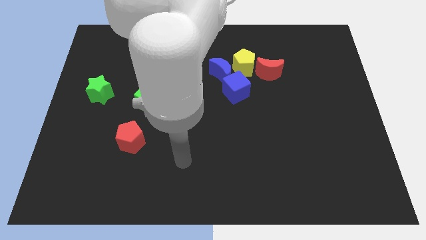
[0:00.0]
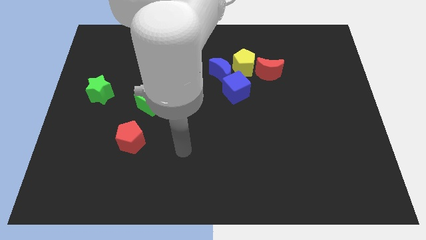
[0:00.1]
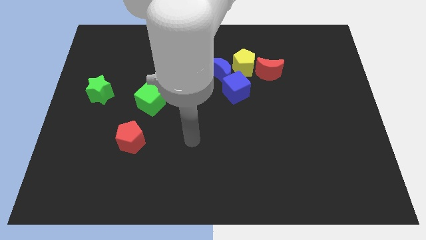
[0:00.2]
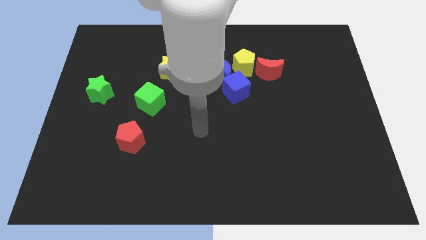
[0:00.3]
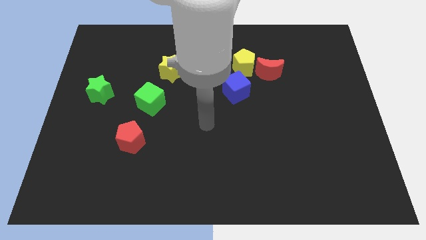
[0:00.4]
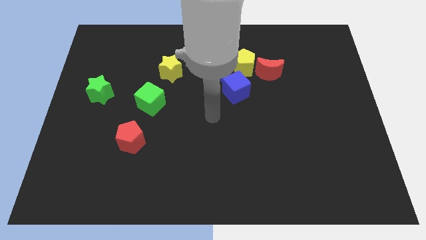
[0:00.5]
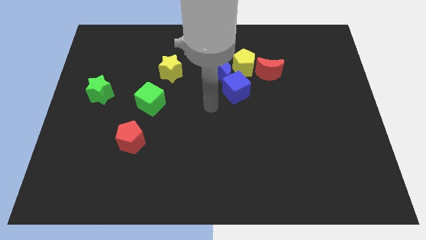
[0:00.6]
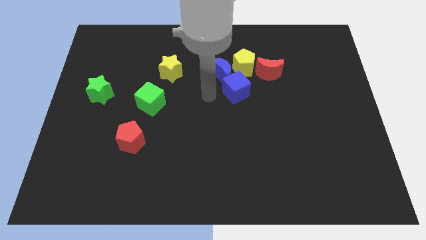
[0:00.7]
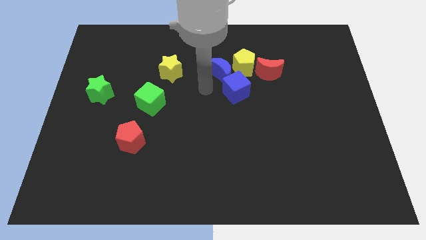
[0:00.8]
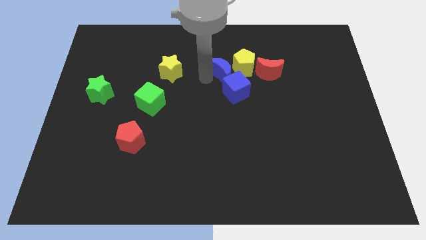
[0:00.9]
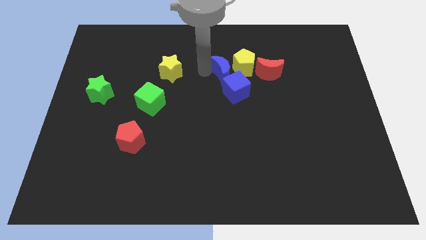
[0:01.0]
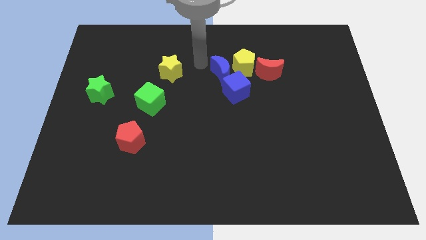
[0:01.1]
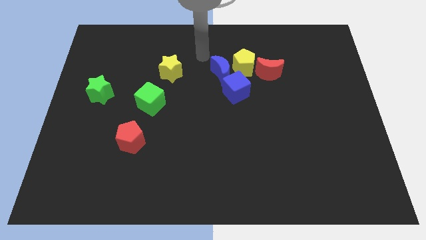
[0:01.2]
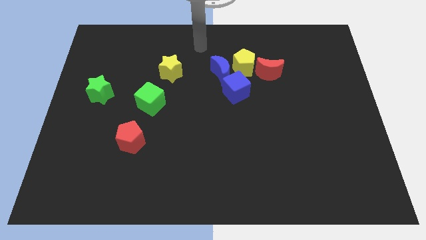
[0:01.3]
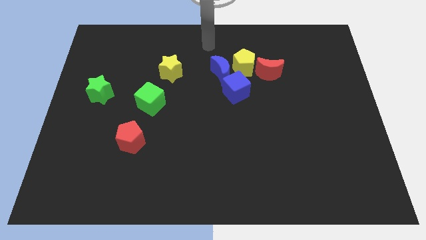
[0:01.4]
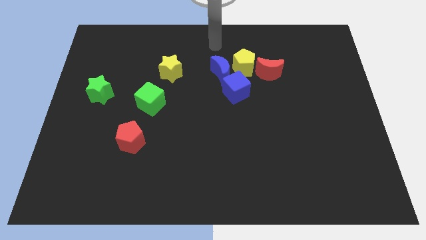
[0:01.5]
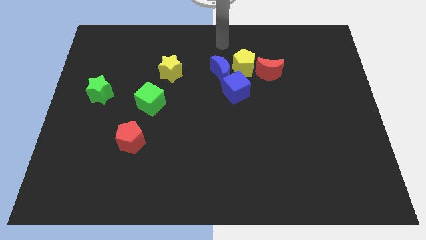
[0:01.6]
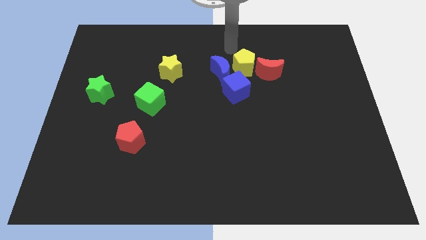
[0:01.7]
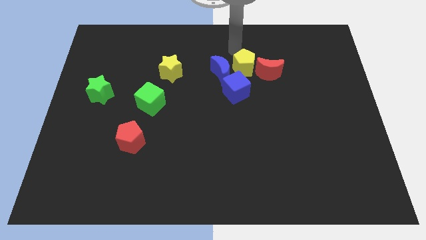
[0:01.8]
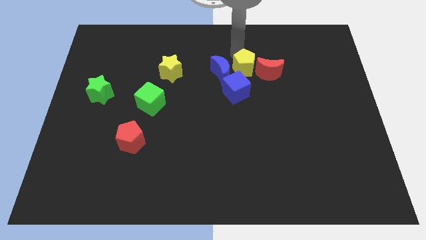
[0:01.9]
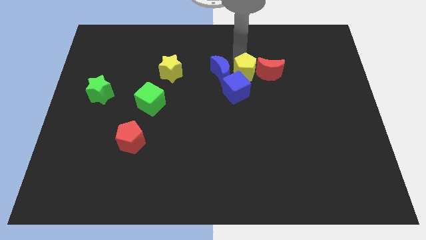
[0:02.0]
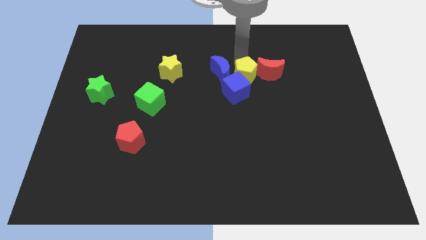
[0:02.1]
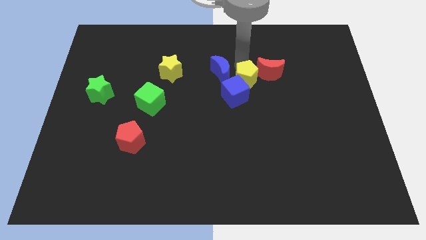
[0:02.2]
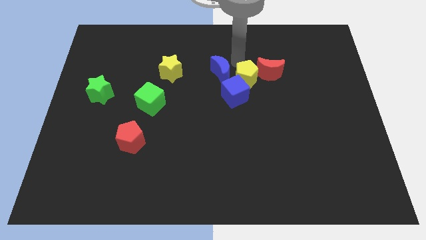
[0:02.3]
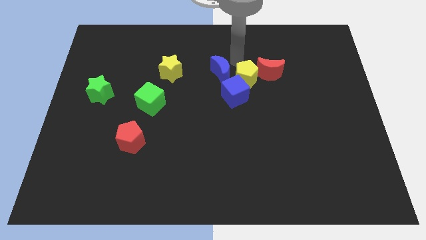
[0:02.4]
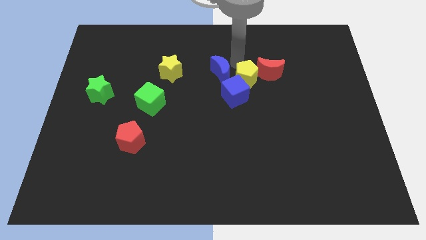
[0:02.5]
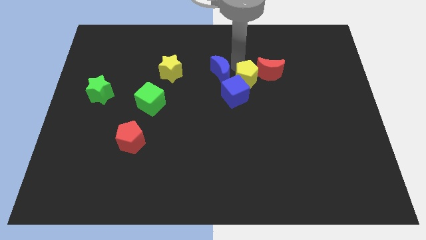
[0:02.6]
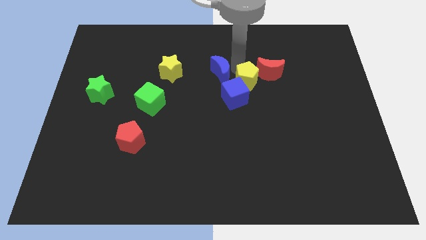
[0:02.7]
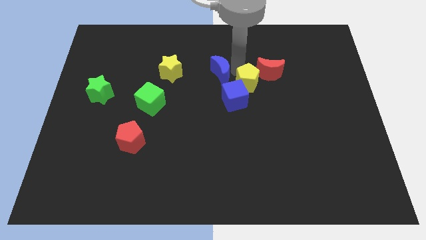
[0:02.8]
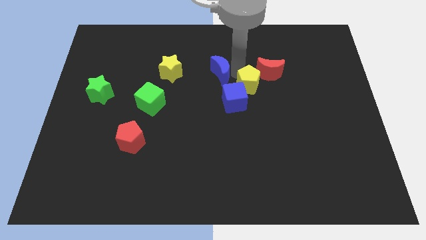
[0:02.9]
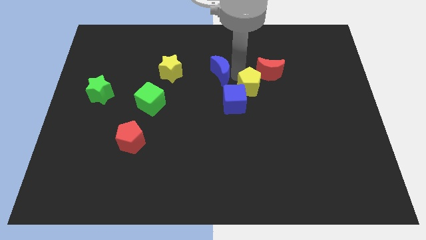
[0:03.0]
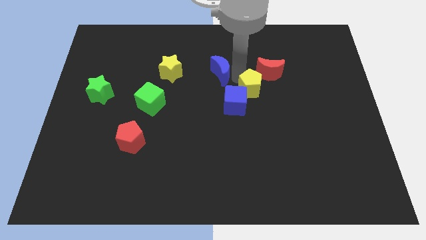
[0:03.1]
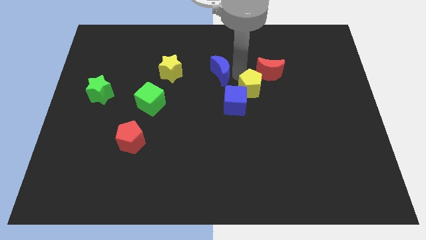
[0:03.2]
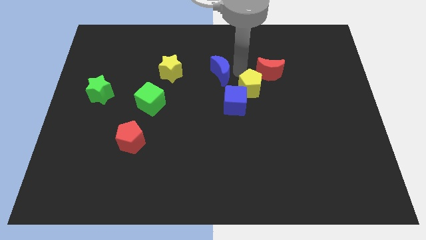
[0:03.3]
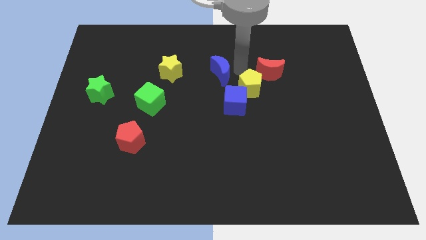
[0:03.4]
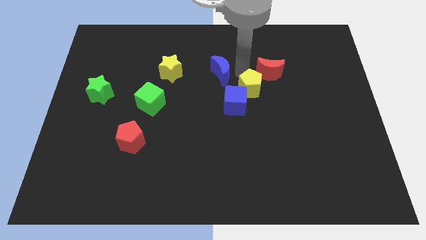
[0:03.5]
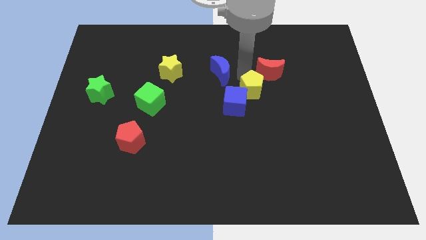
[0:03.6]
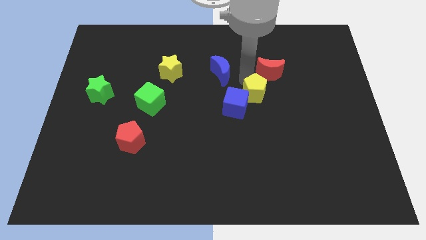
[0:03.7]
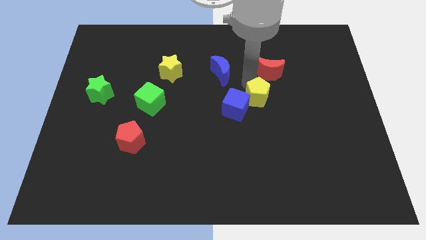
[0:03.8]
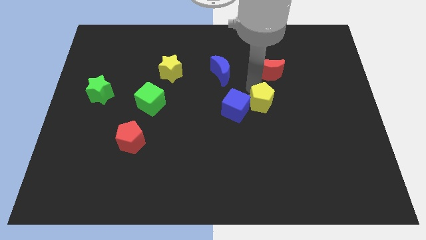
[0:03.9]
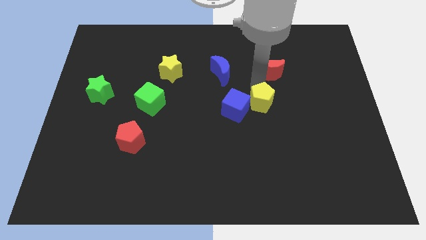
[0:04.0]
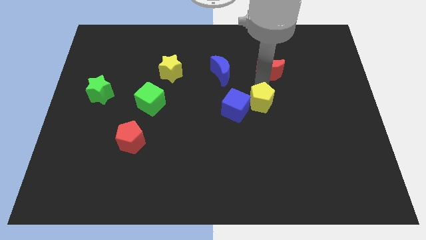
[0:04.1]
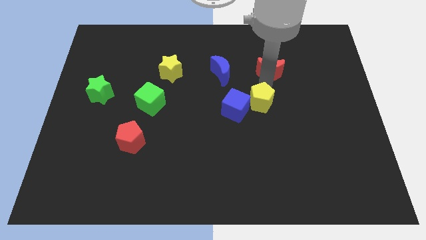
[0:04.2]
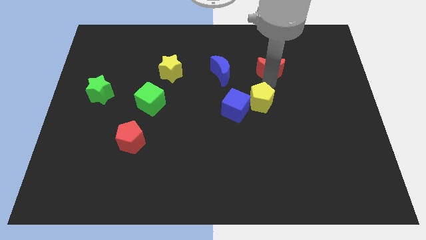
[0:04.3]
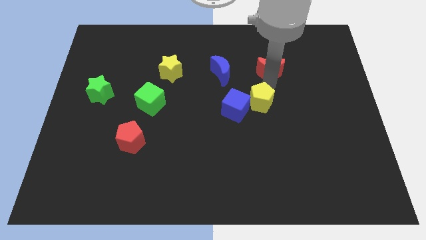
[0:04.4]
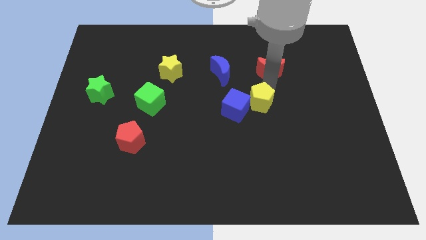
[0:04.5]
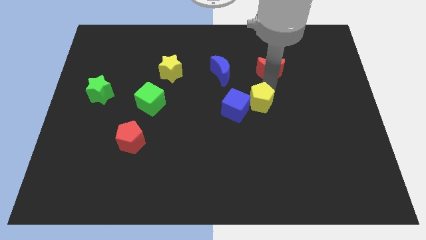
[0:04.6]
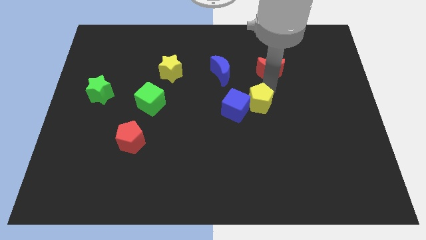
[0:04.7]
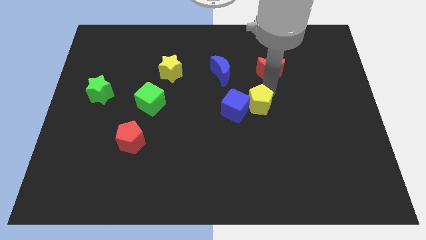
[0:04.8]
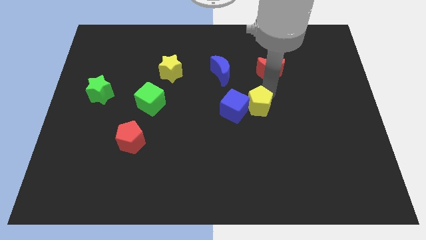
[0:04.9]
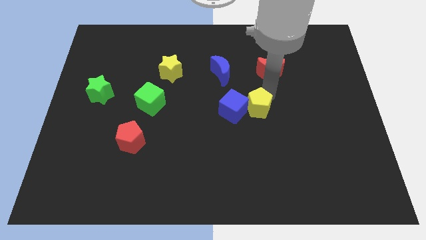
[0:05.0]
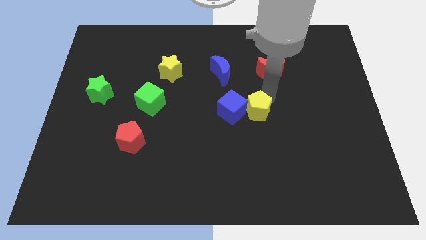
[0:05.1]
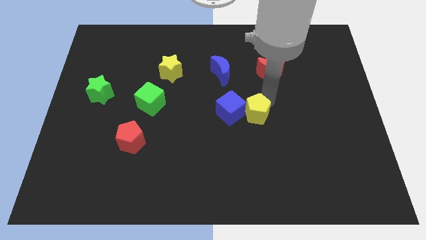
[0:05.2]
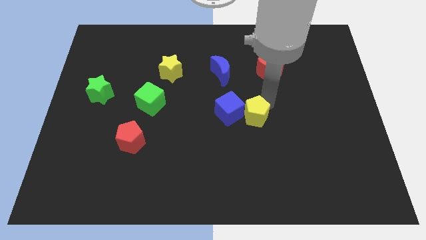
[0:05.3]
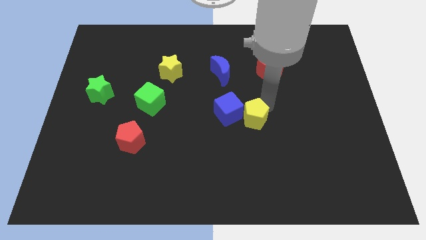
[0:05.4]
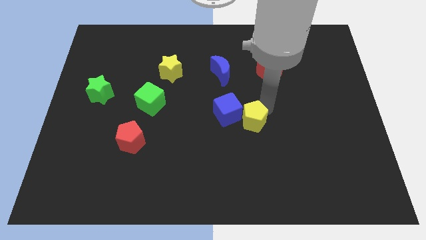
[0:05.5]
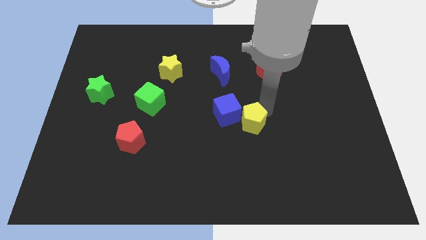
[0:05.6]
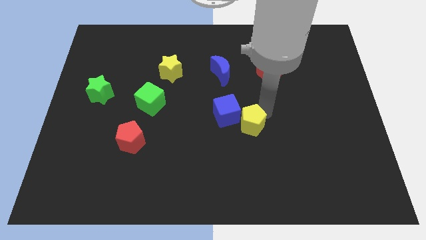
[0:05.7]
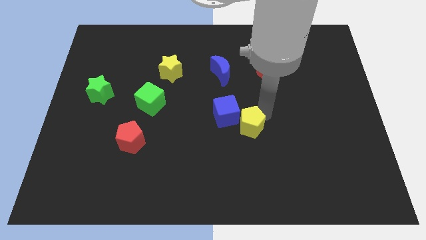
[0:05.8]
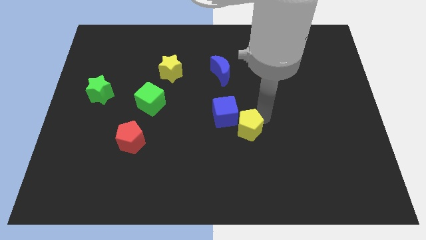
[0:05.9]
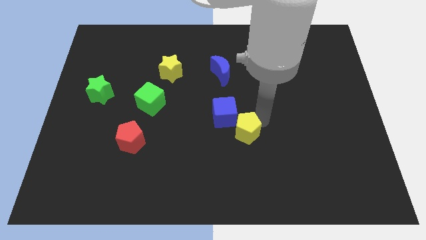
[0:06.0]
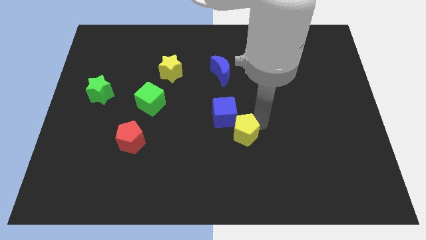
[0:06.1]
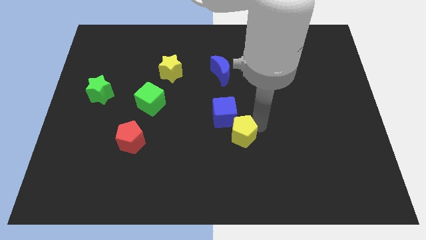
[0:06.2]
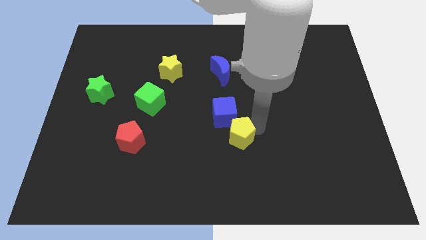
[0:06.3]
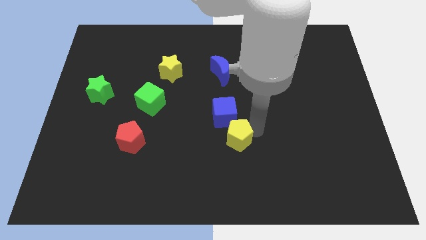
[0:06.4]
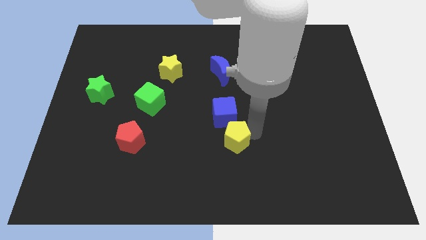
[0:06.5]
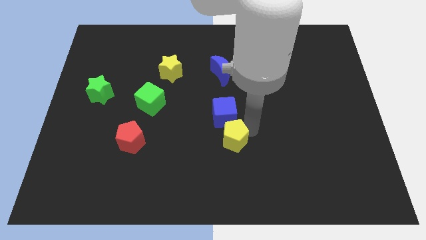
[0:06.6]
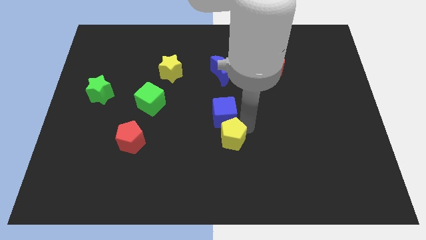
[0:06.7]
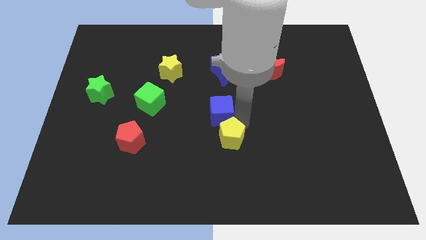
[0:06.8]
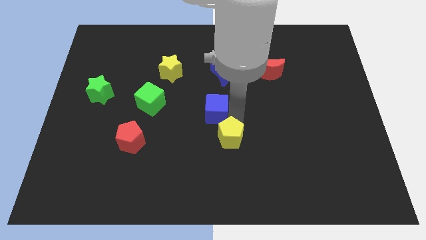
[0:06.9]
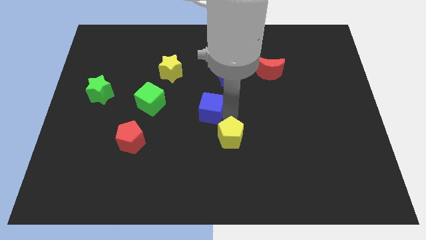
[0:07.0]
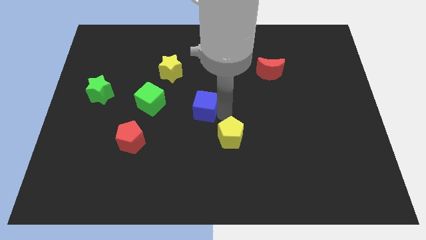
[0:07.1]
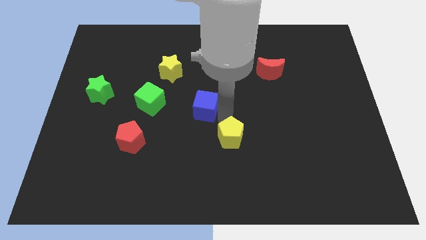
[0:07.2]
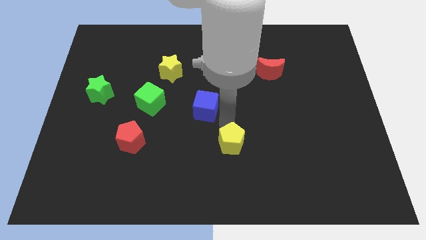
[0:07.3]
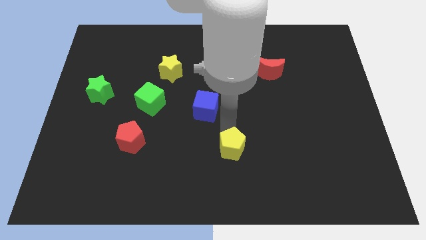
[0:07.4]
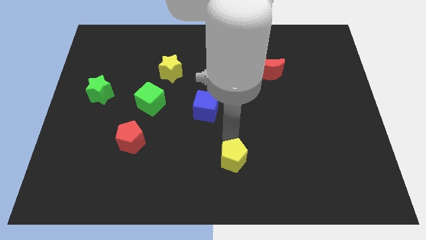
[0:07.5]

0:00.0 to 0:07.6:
slide the yellow pentagon to the bottom
